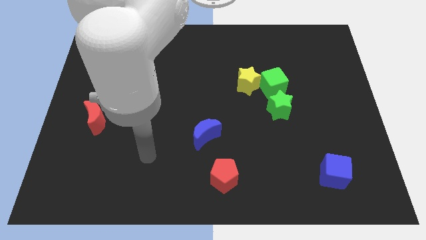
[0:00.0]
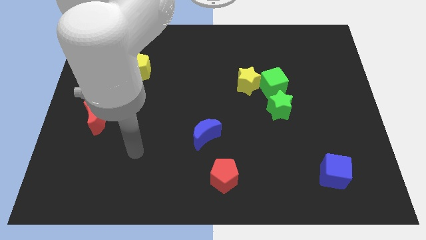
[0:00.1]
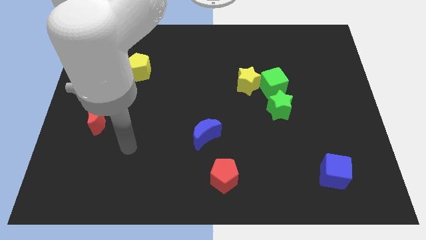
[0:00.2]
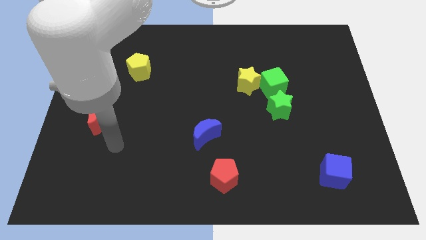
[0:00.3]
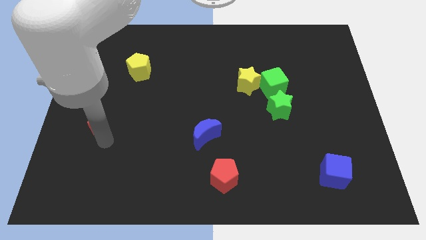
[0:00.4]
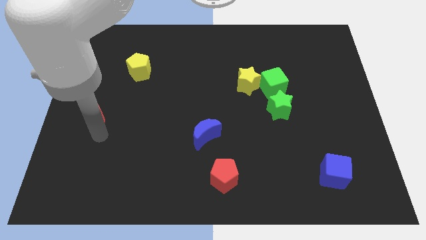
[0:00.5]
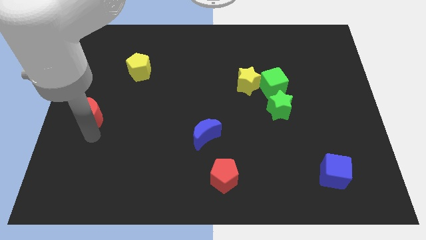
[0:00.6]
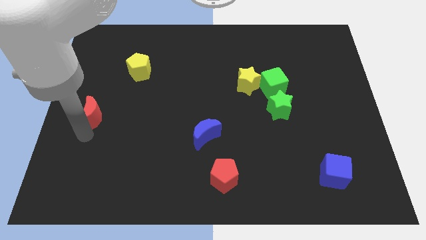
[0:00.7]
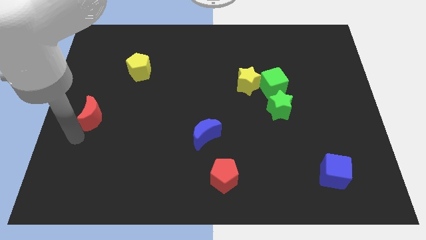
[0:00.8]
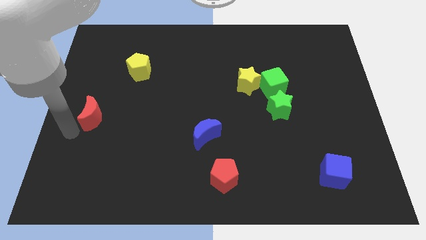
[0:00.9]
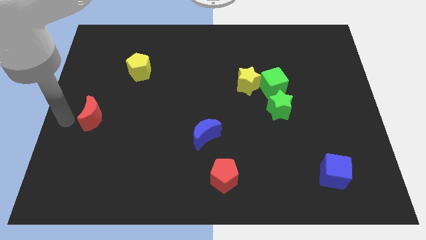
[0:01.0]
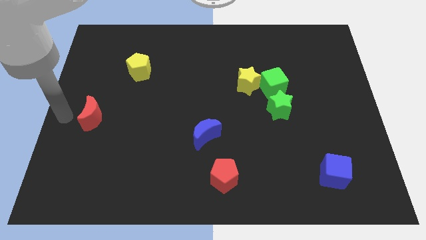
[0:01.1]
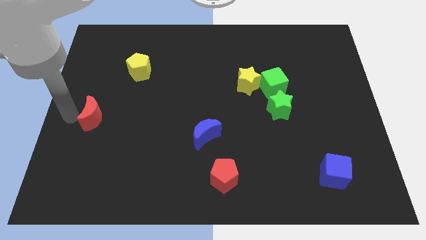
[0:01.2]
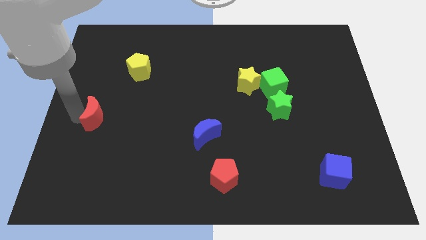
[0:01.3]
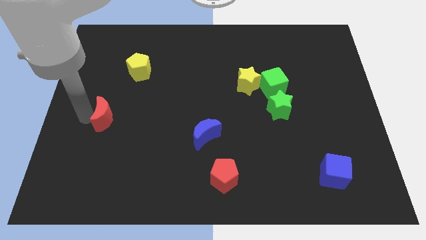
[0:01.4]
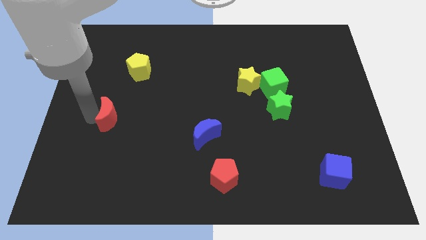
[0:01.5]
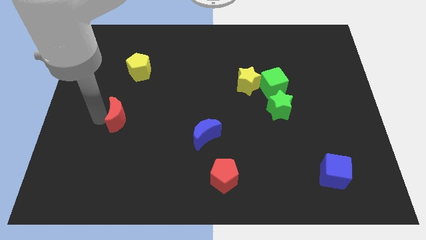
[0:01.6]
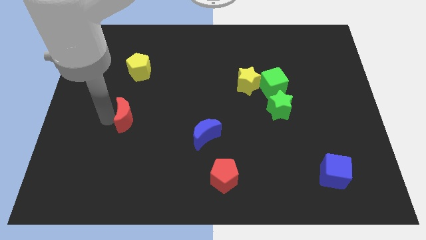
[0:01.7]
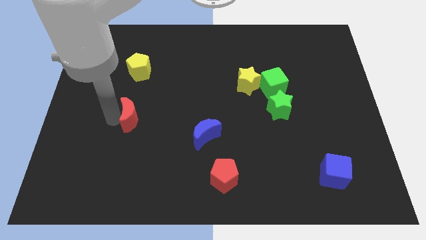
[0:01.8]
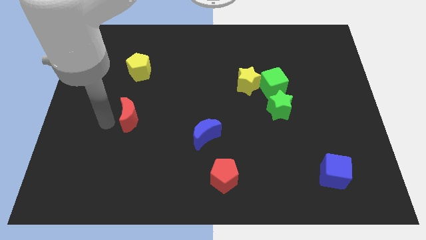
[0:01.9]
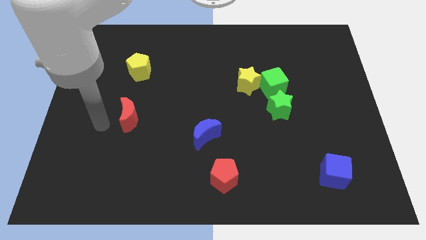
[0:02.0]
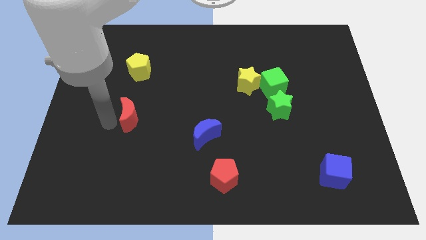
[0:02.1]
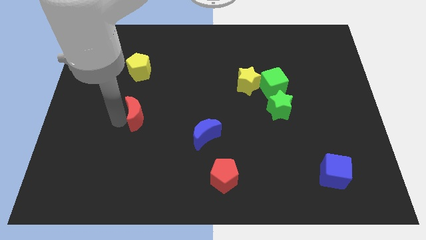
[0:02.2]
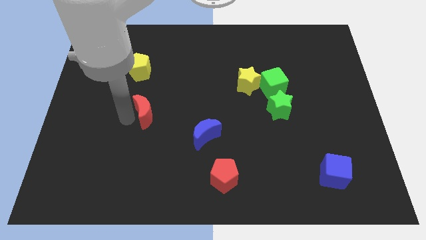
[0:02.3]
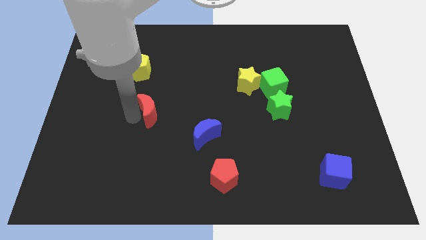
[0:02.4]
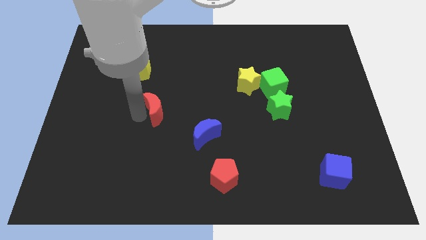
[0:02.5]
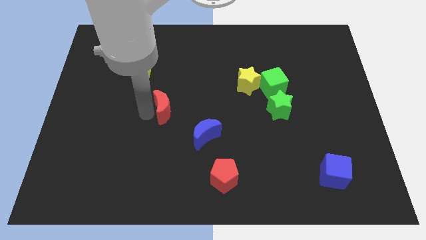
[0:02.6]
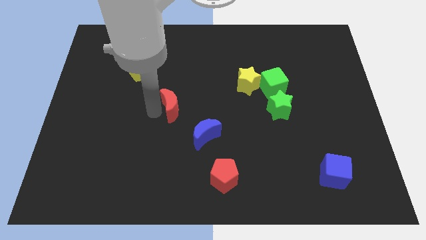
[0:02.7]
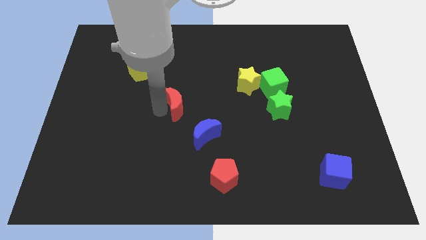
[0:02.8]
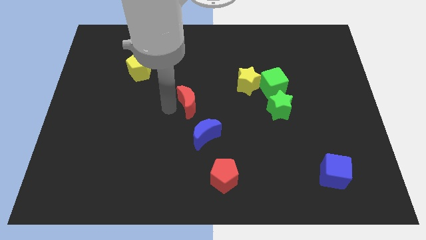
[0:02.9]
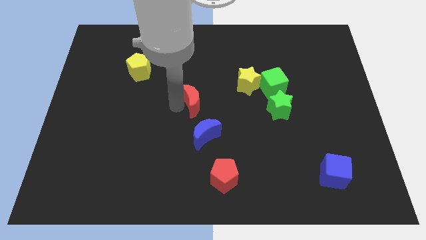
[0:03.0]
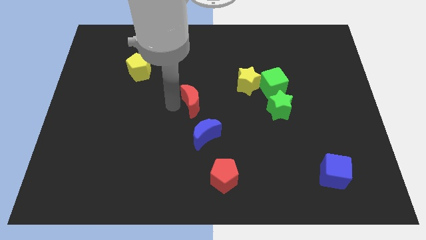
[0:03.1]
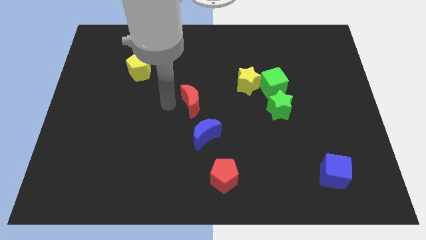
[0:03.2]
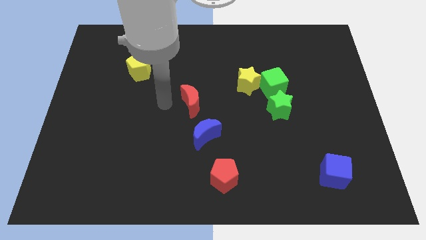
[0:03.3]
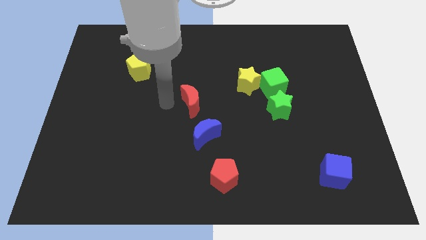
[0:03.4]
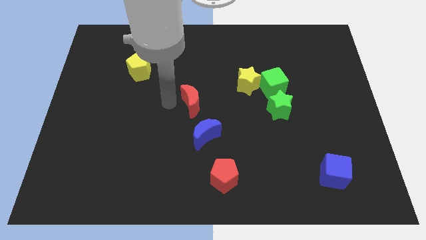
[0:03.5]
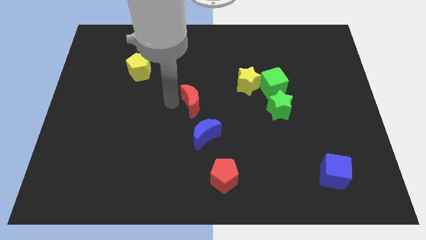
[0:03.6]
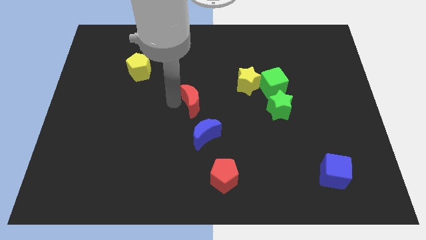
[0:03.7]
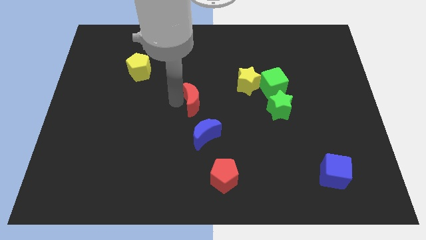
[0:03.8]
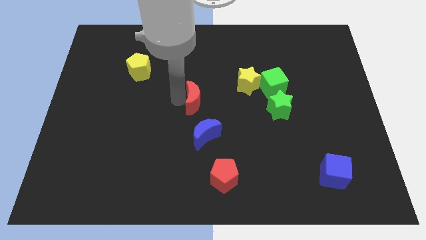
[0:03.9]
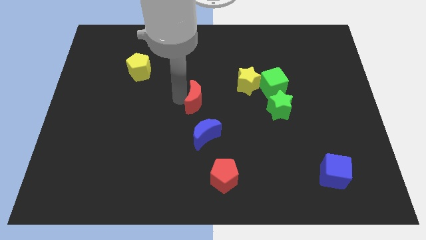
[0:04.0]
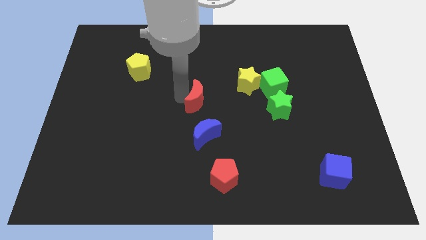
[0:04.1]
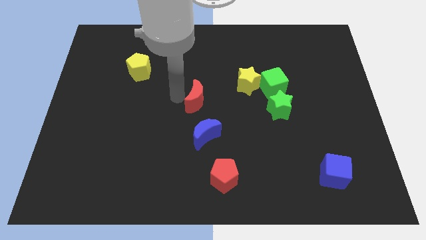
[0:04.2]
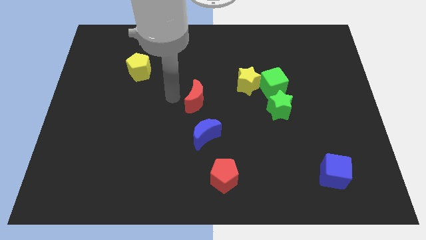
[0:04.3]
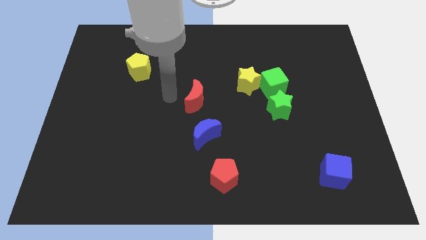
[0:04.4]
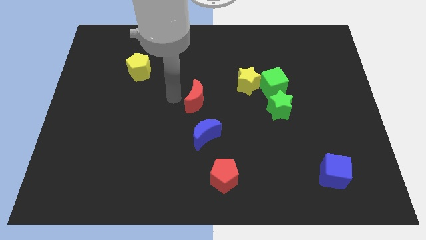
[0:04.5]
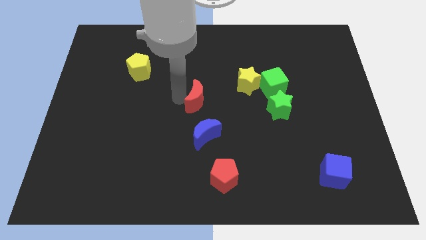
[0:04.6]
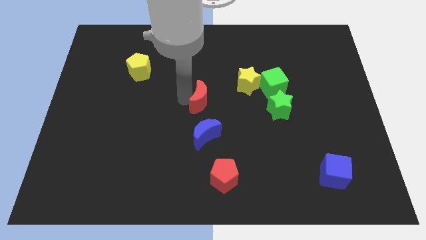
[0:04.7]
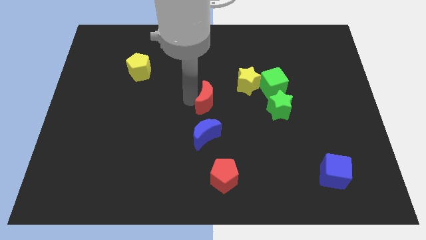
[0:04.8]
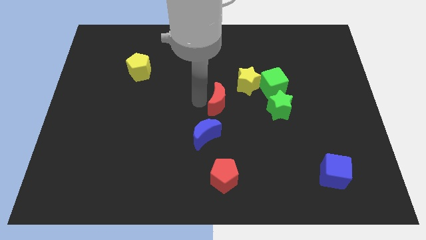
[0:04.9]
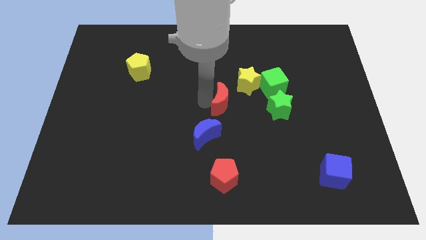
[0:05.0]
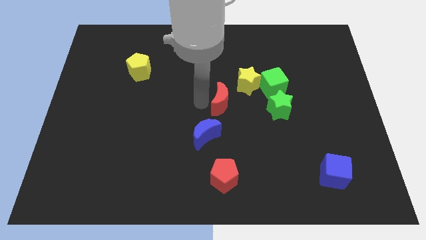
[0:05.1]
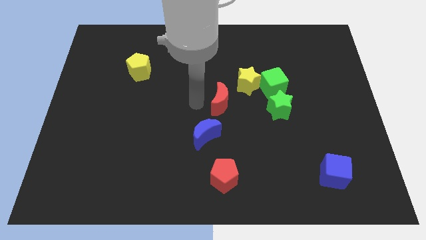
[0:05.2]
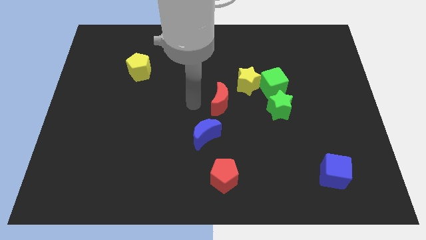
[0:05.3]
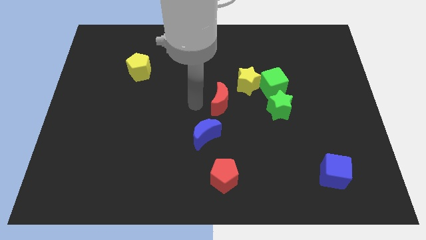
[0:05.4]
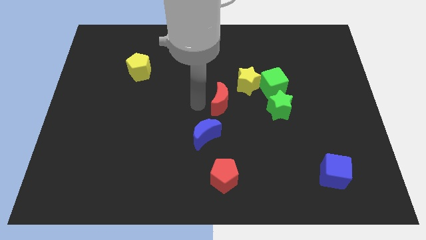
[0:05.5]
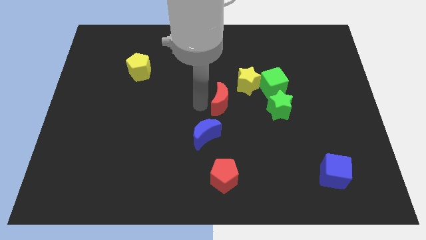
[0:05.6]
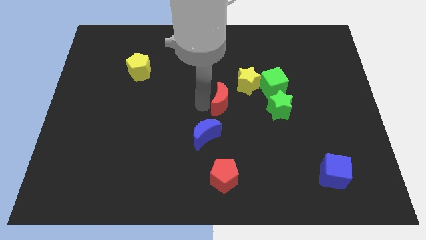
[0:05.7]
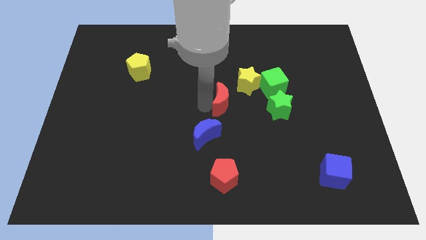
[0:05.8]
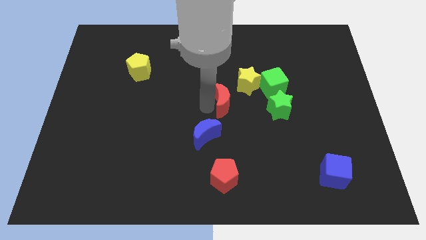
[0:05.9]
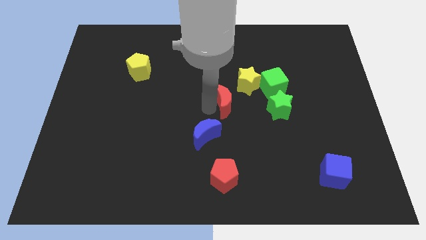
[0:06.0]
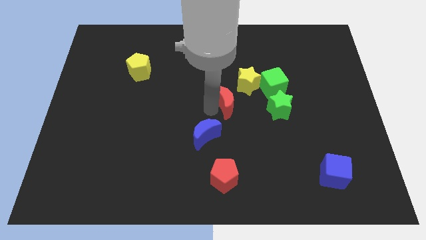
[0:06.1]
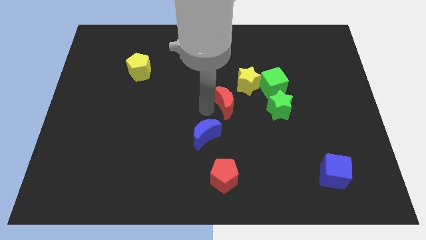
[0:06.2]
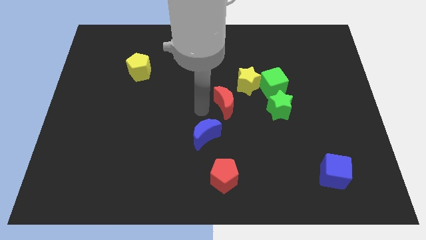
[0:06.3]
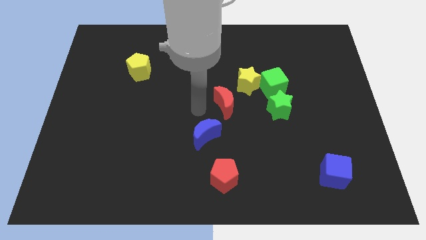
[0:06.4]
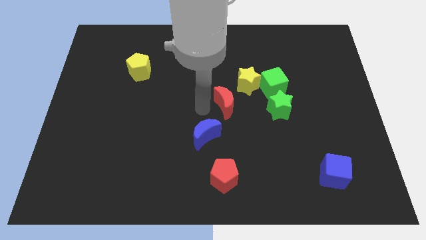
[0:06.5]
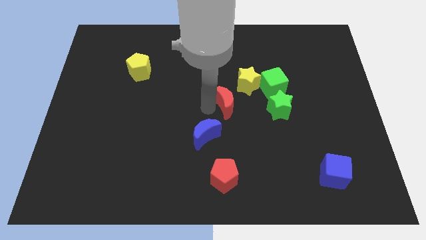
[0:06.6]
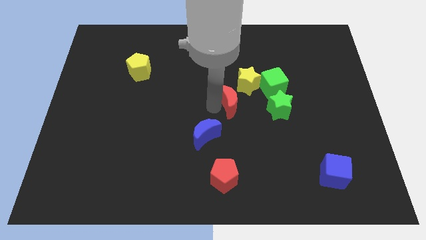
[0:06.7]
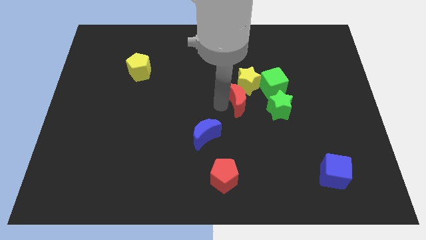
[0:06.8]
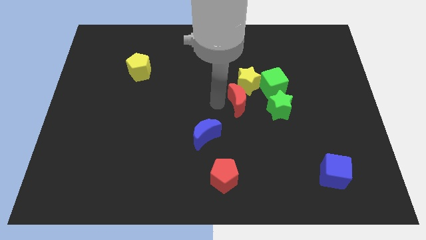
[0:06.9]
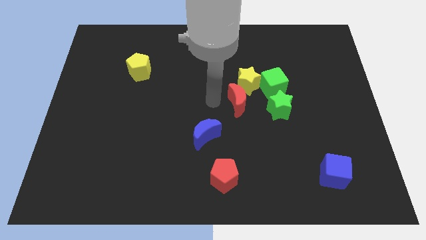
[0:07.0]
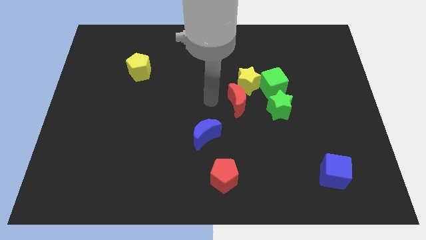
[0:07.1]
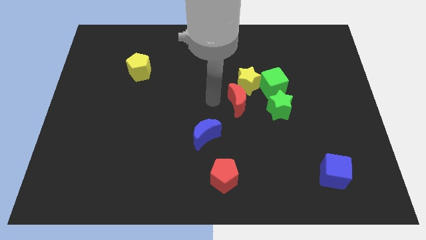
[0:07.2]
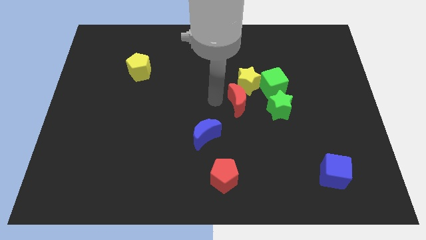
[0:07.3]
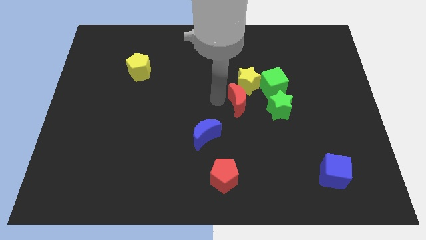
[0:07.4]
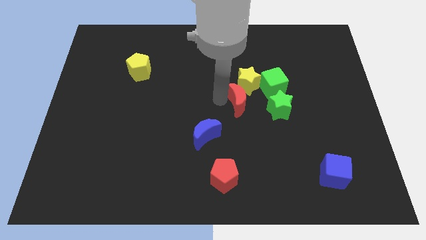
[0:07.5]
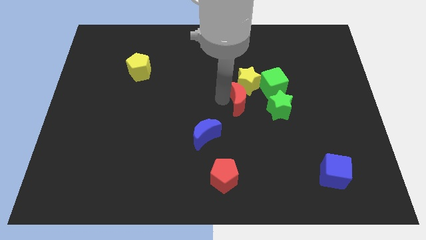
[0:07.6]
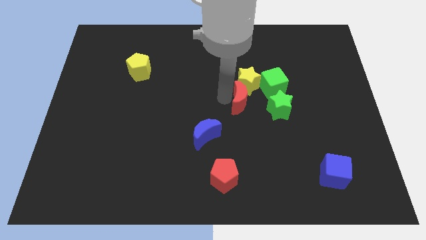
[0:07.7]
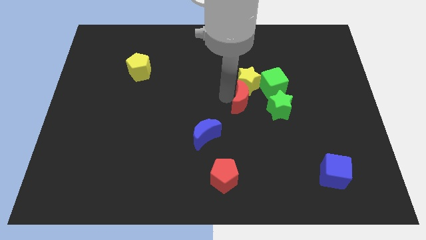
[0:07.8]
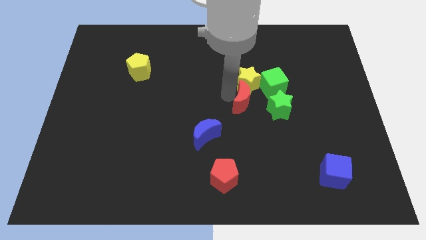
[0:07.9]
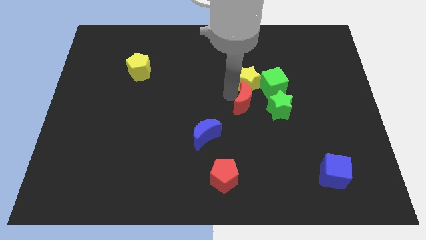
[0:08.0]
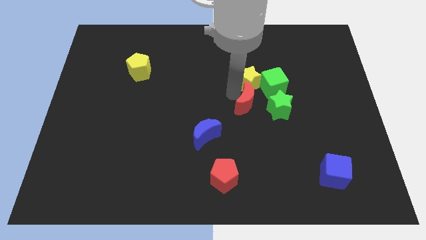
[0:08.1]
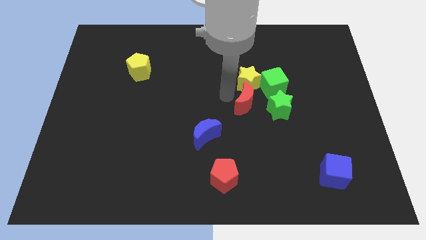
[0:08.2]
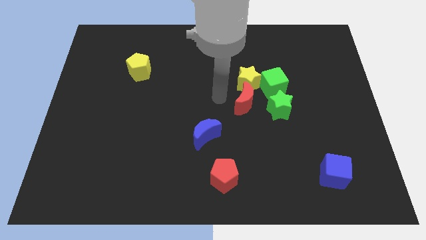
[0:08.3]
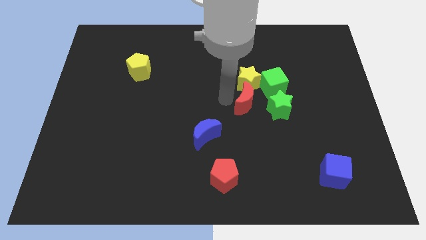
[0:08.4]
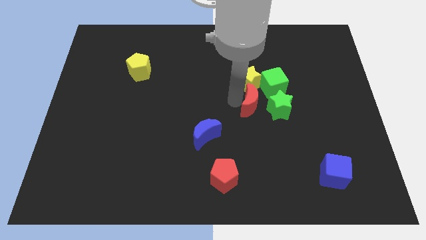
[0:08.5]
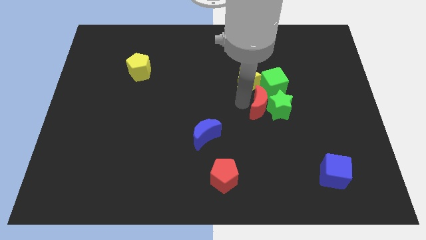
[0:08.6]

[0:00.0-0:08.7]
move the red moon towards the green star
